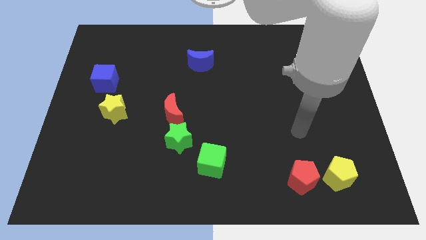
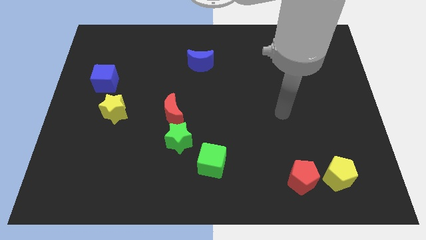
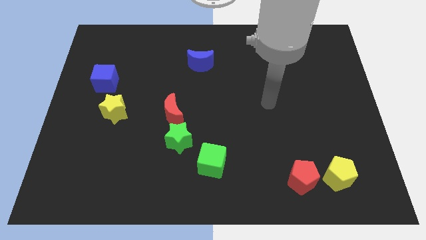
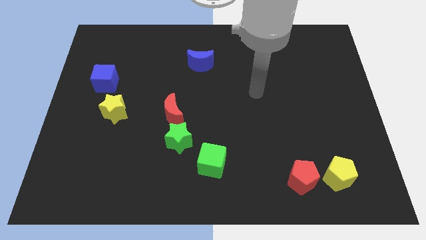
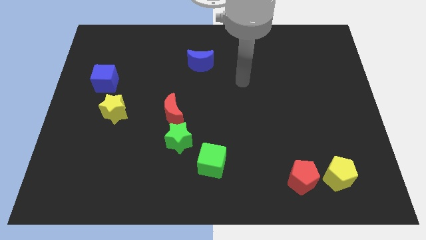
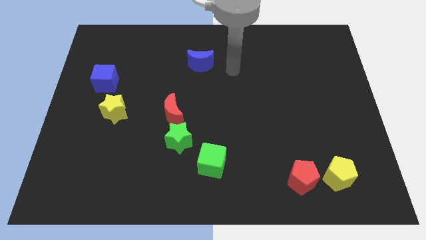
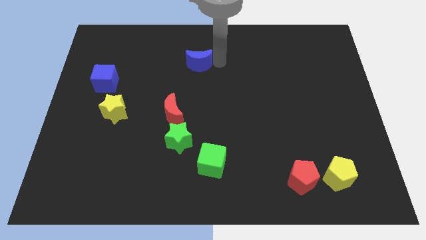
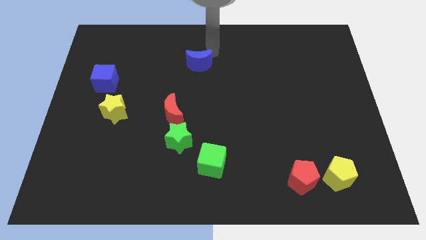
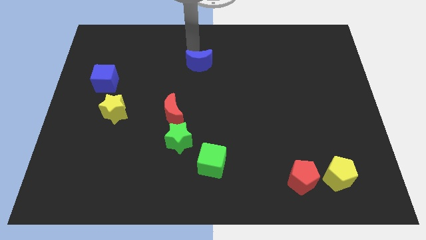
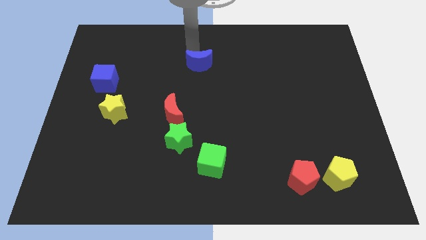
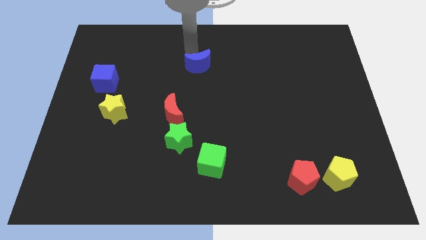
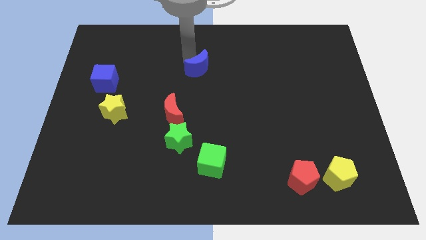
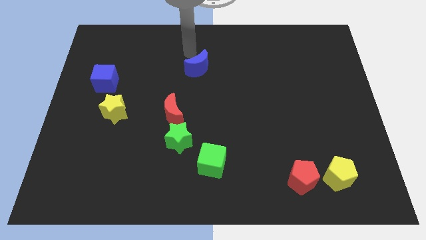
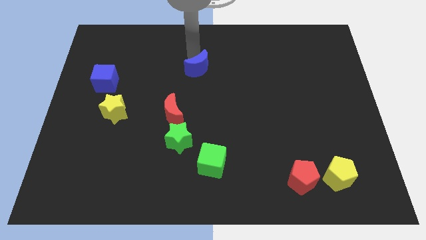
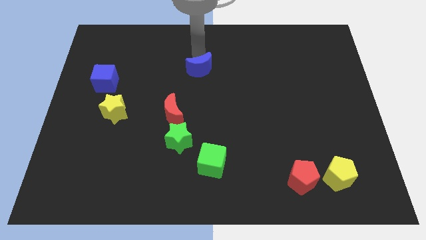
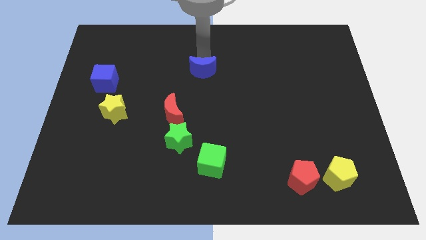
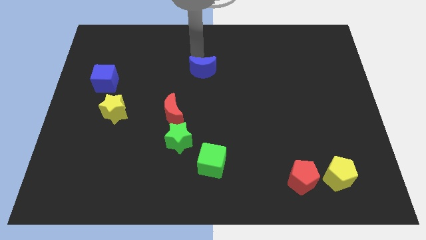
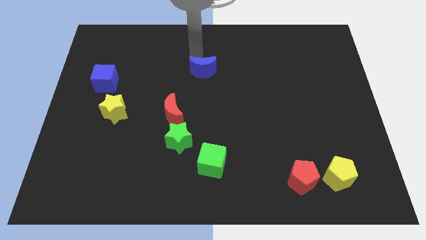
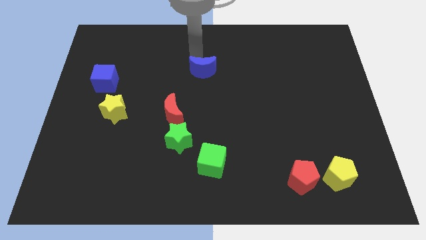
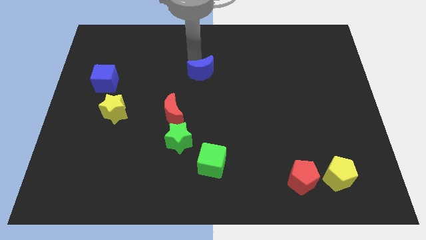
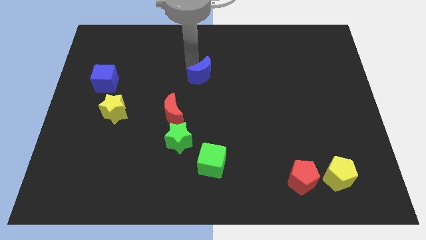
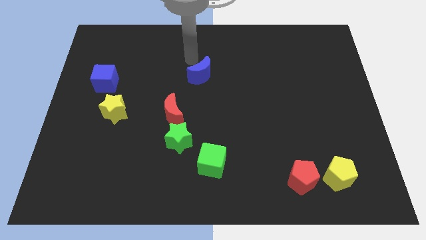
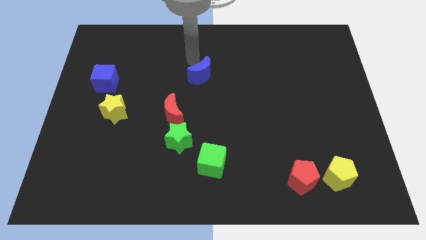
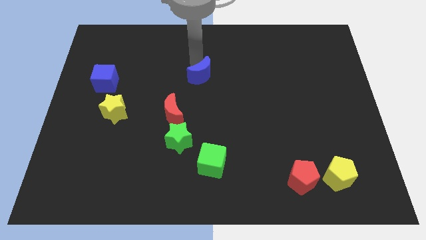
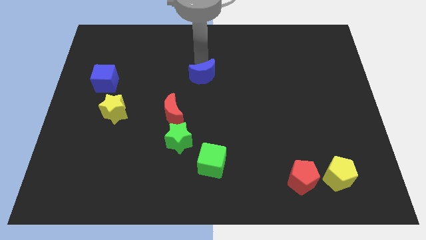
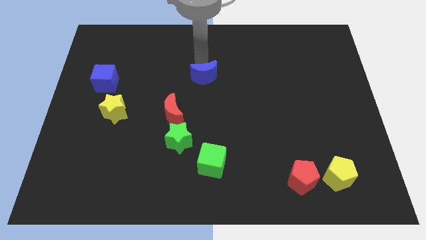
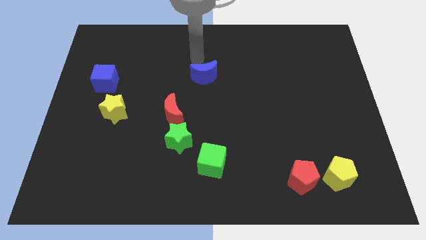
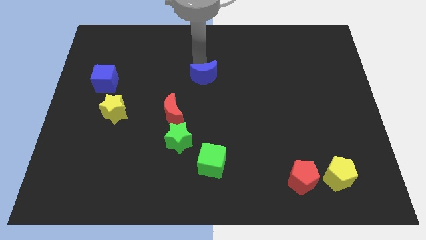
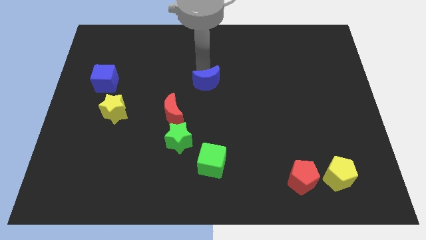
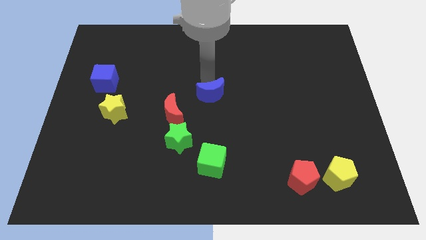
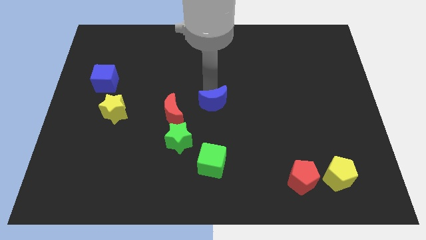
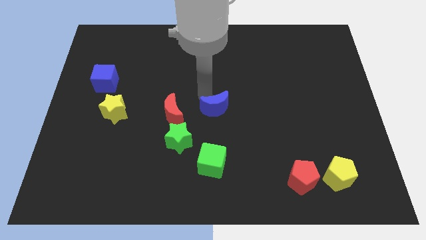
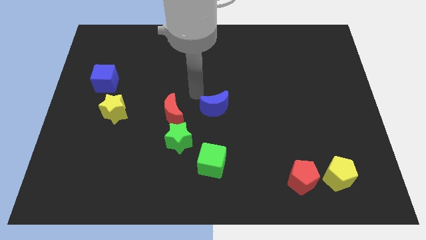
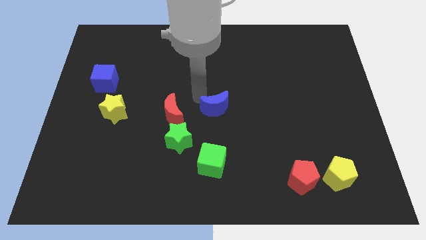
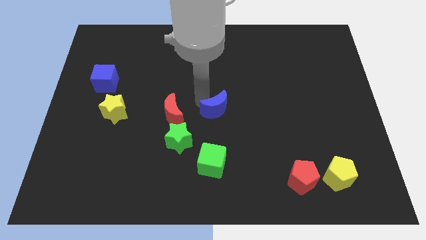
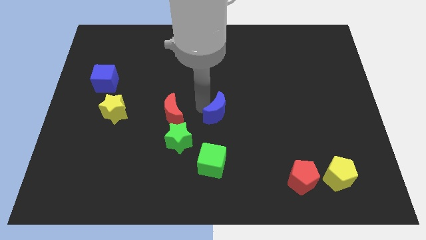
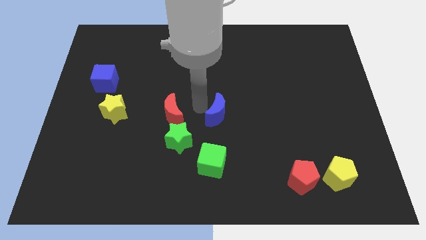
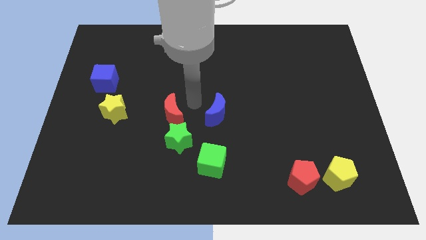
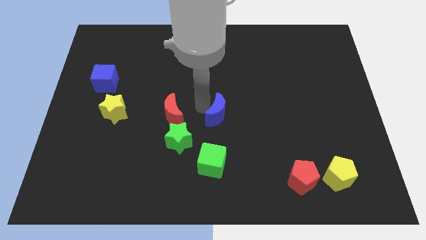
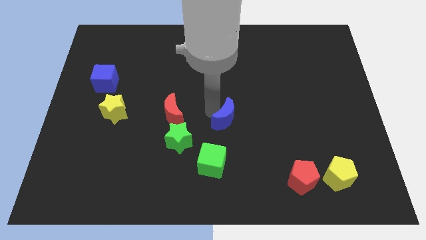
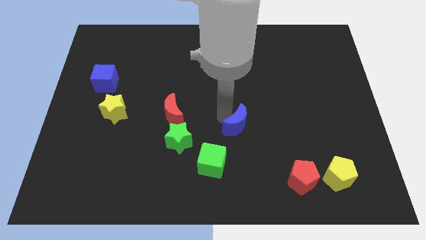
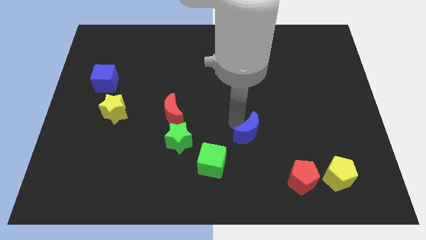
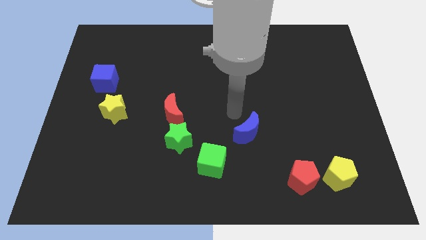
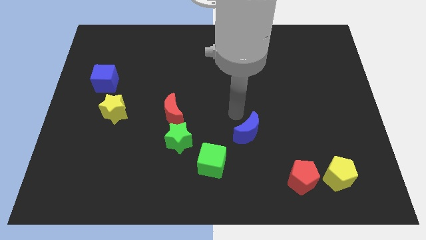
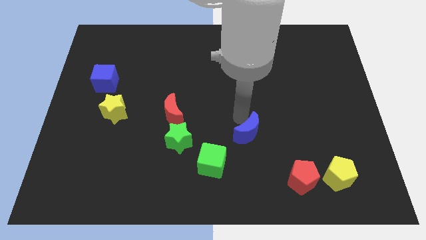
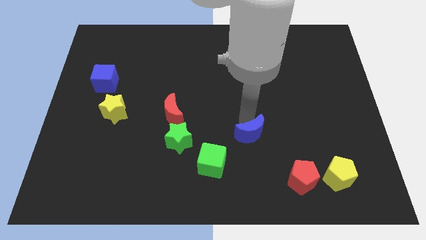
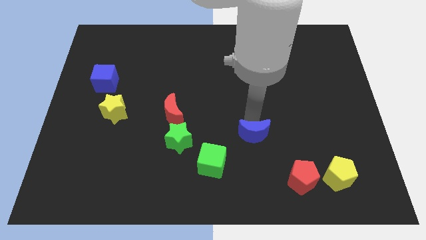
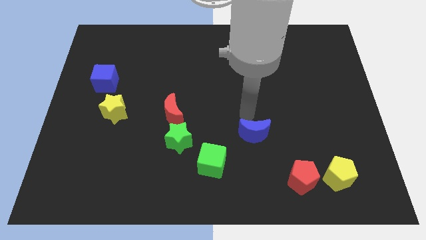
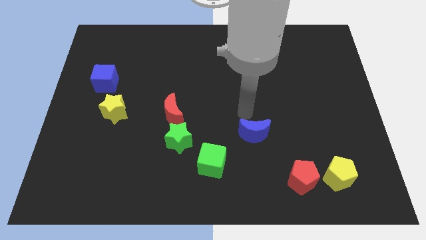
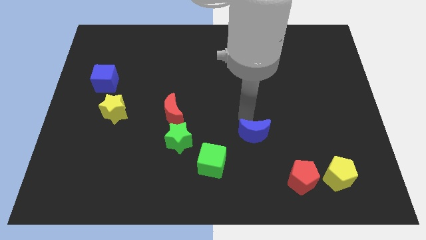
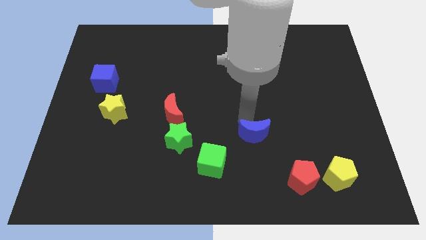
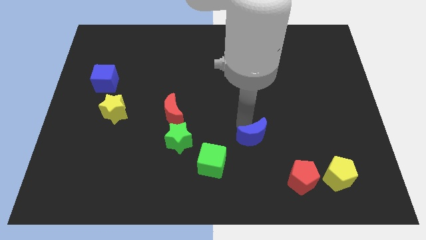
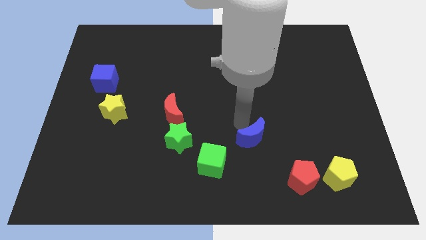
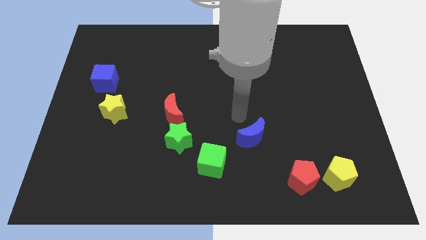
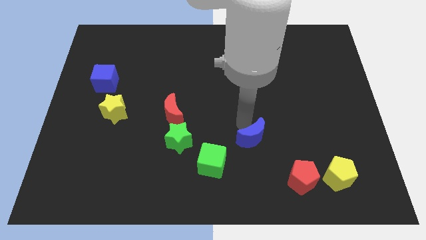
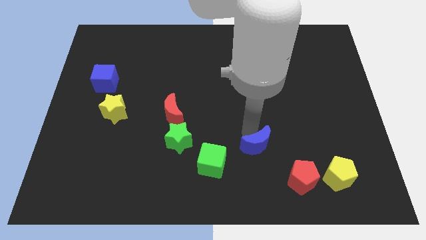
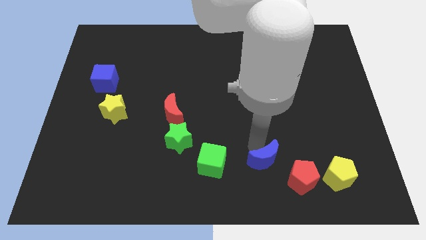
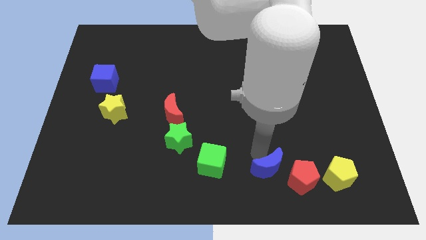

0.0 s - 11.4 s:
slide the blue moon to the left side of the yellow pentagon

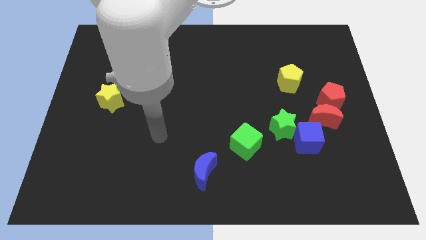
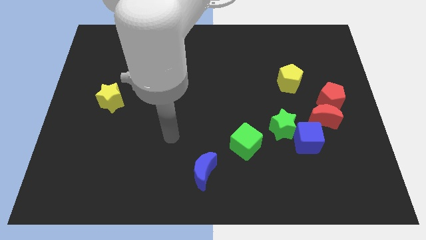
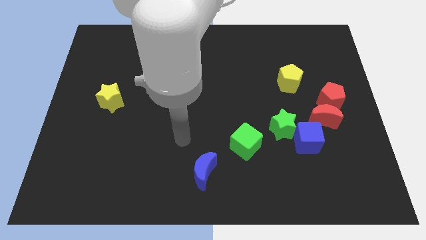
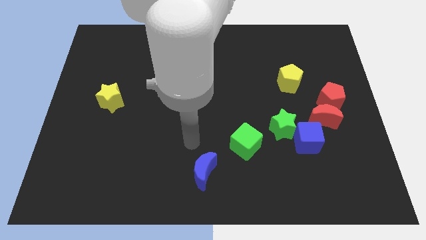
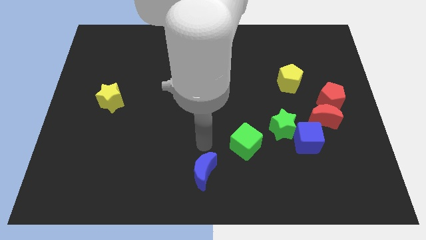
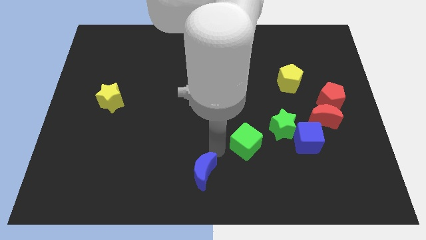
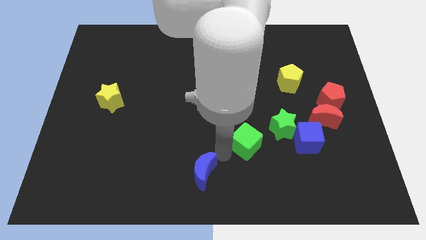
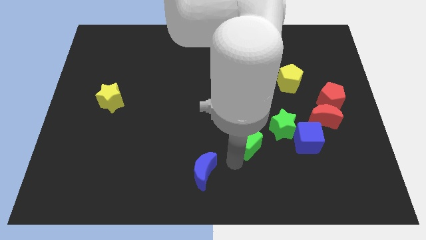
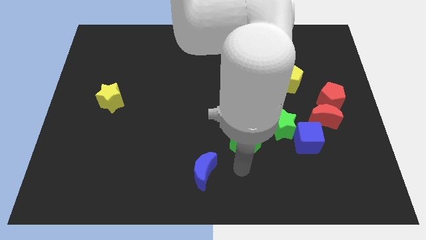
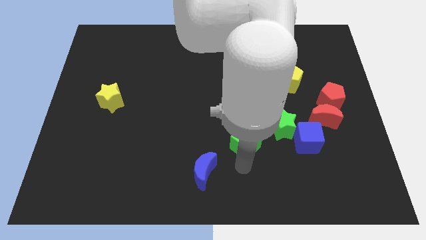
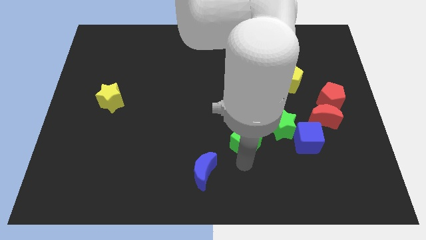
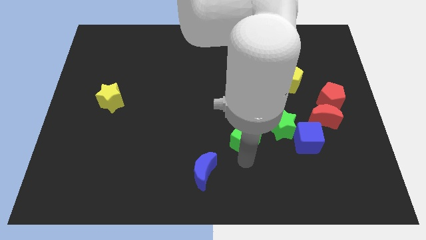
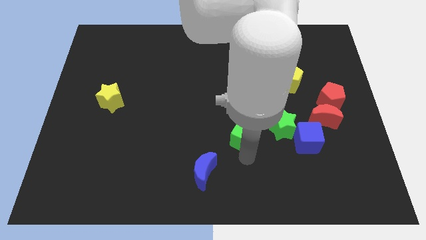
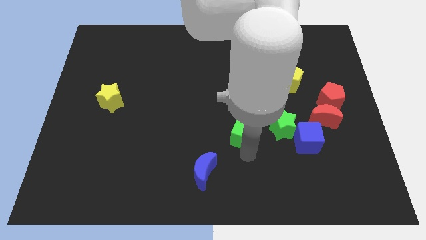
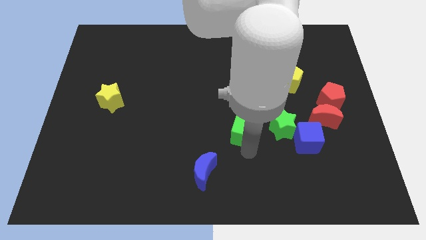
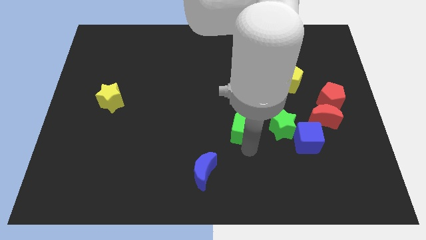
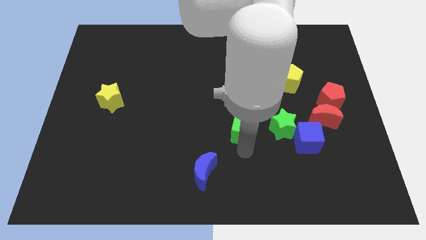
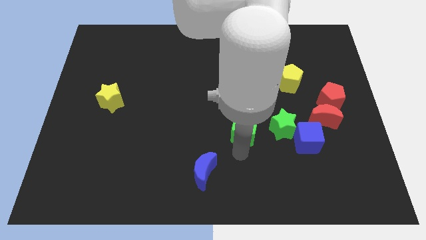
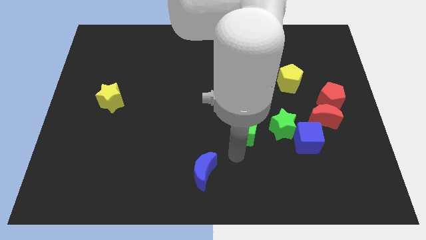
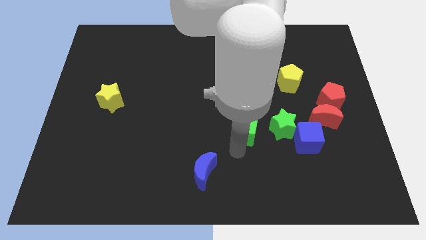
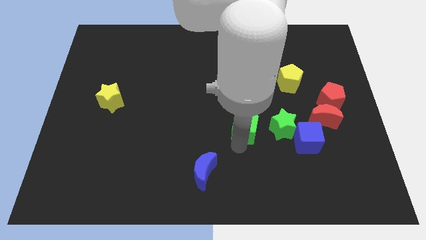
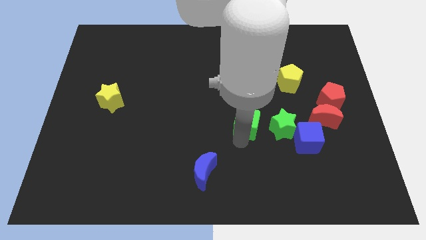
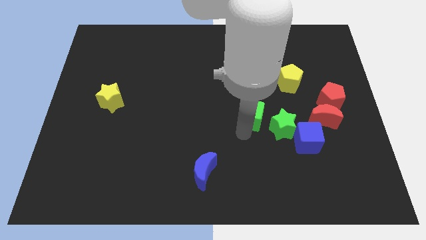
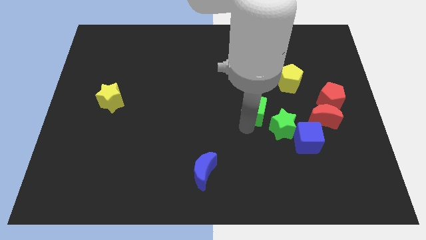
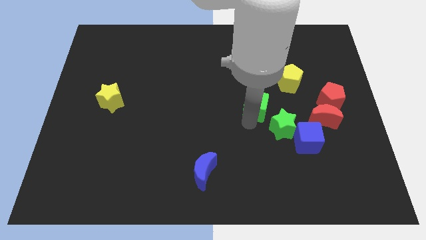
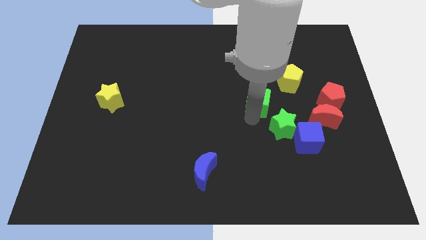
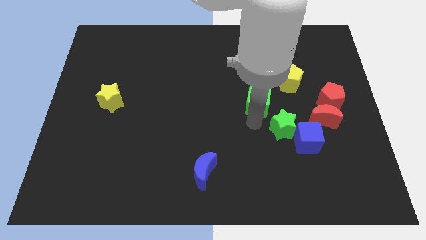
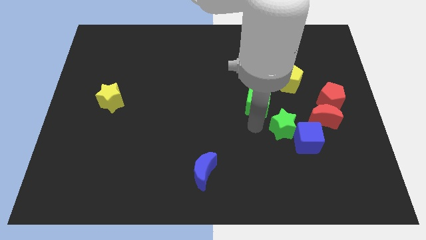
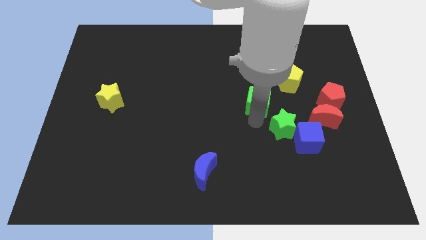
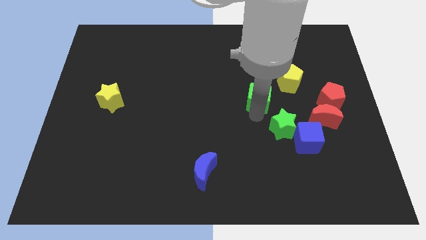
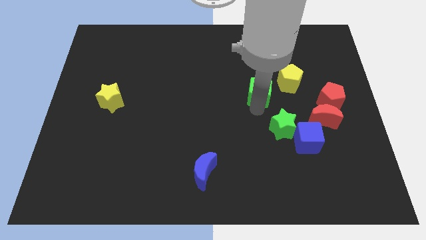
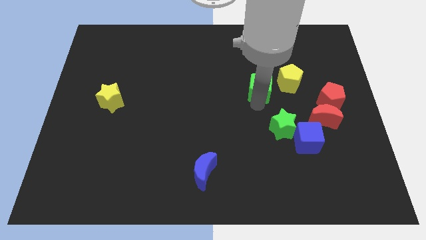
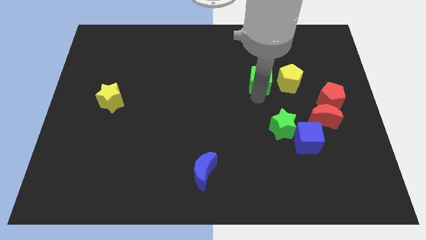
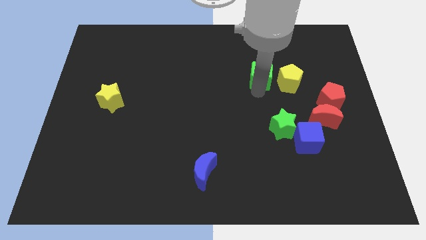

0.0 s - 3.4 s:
push the green cube to the top left side of the yellow pentagon
